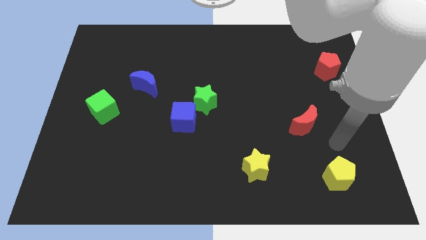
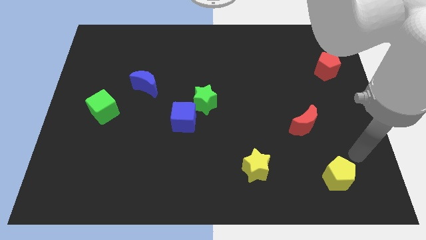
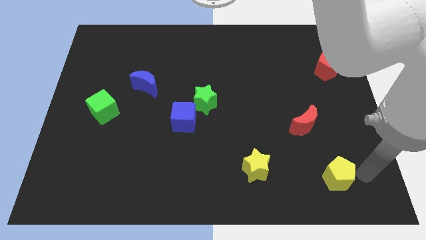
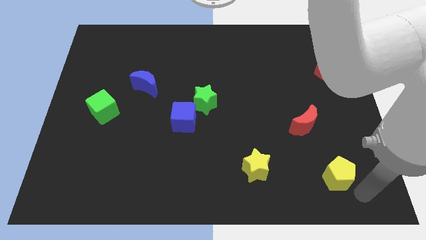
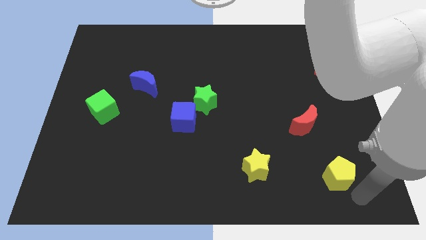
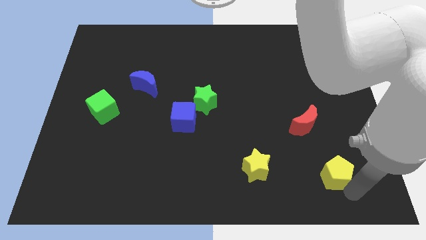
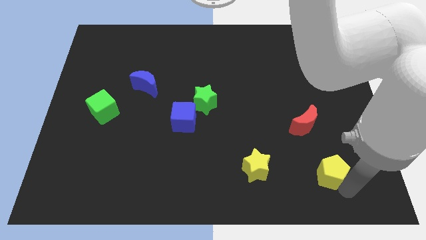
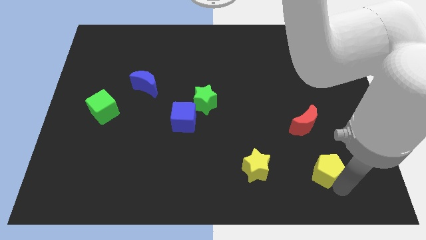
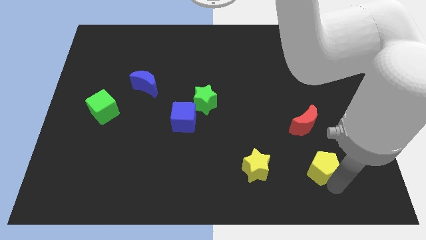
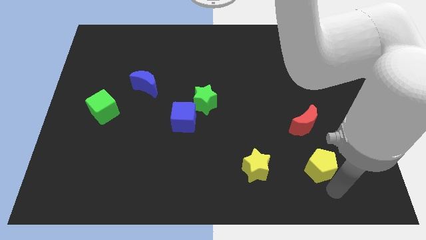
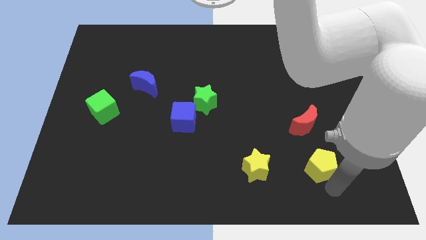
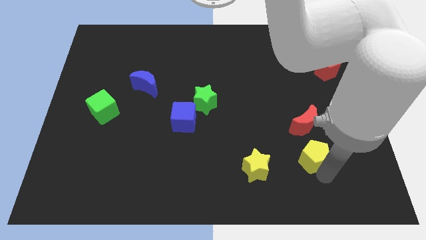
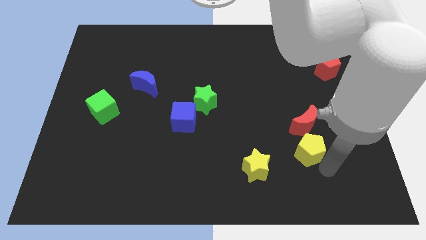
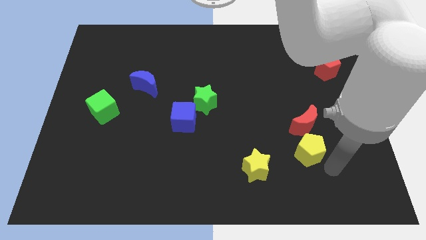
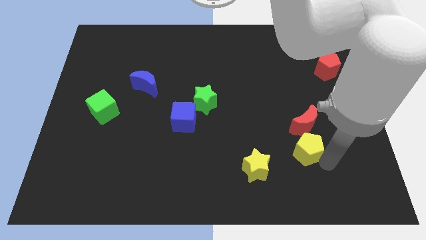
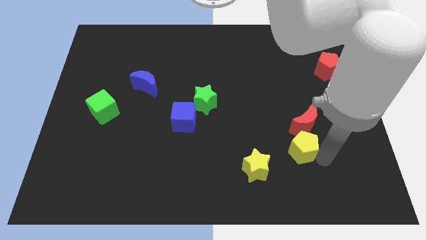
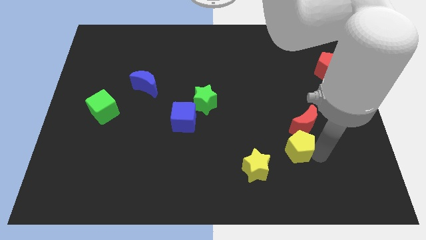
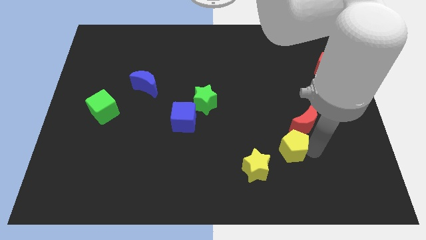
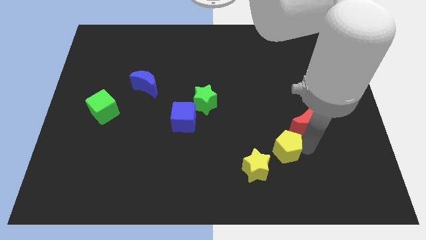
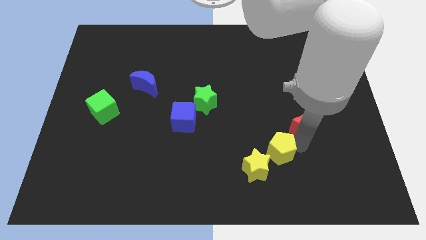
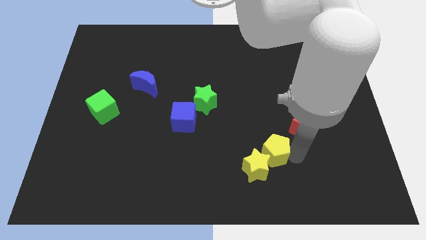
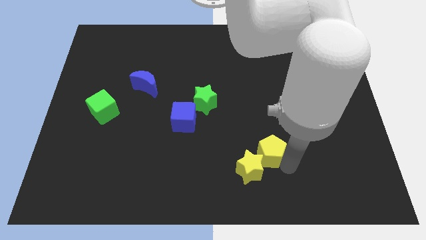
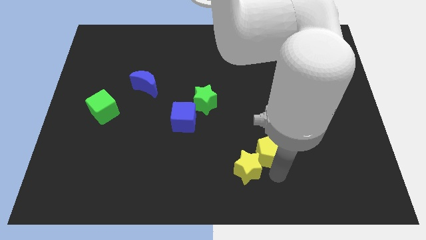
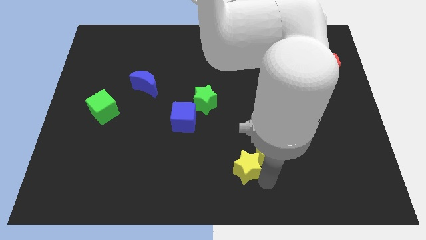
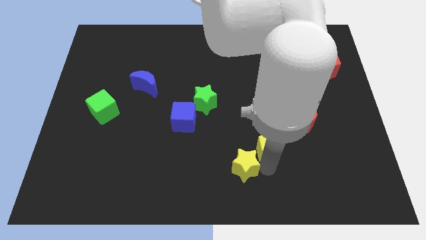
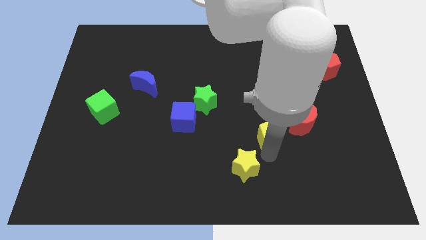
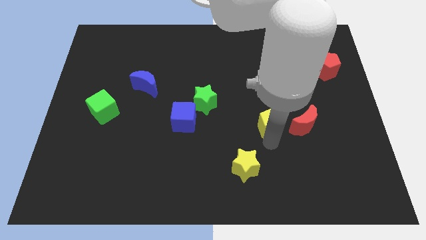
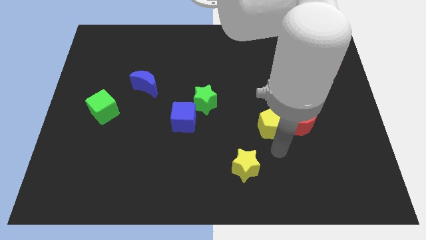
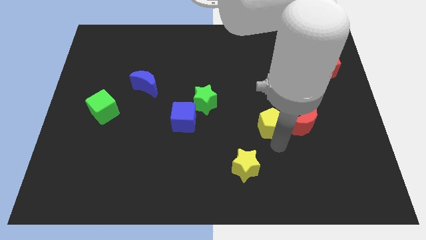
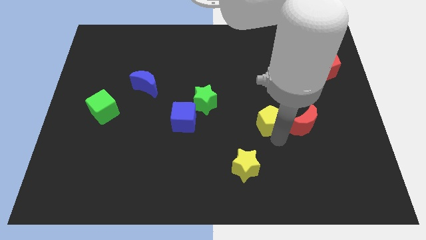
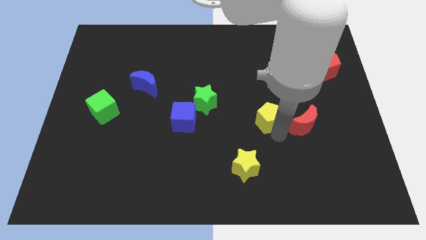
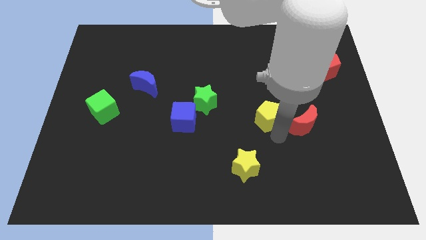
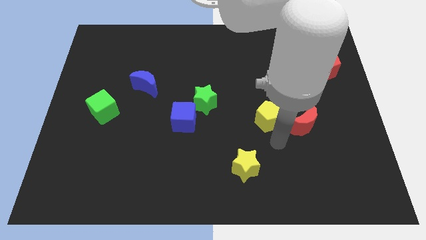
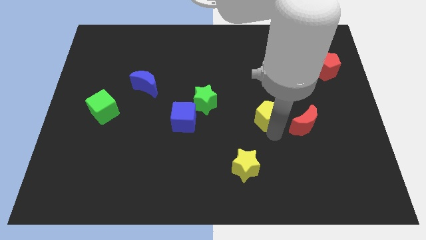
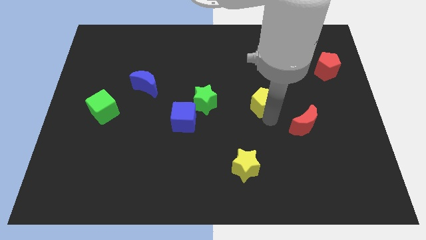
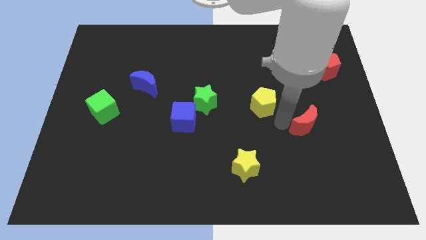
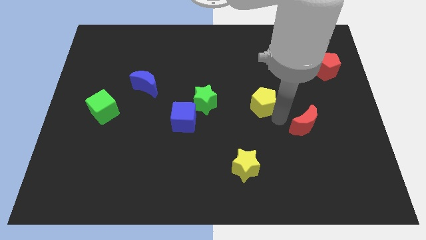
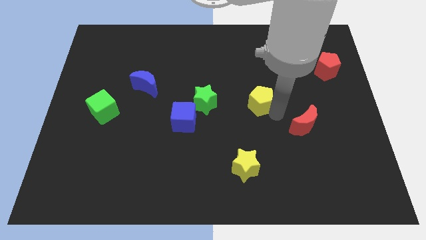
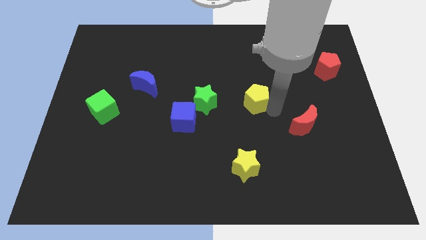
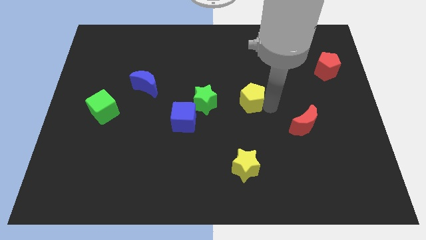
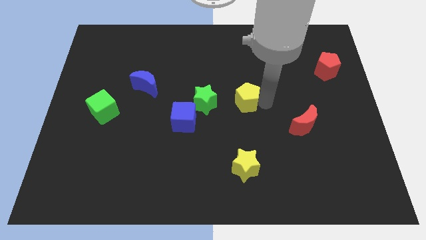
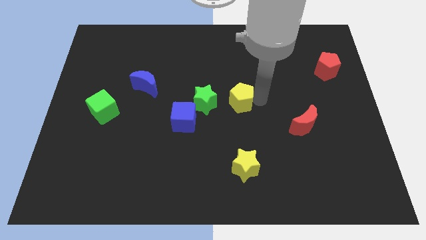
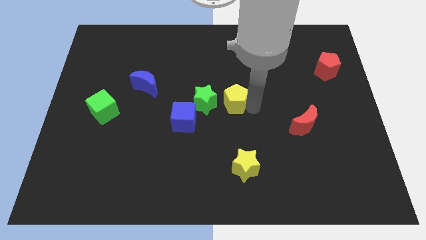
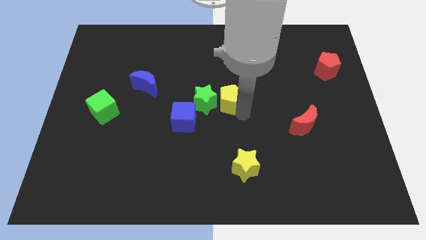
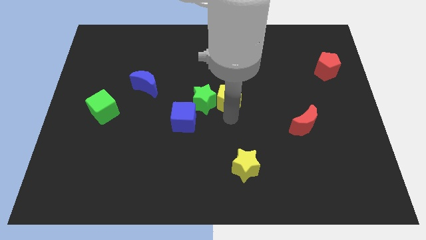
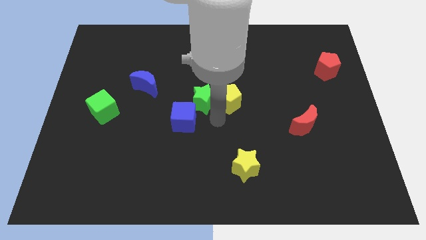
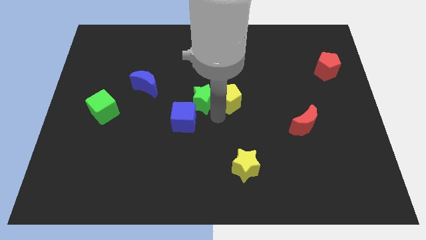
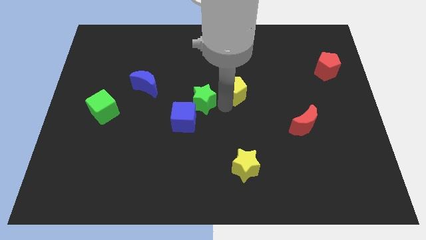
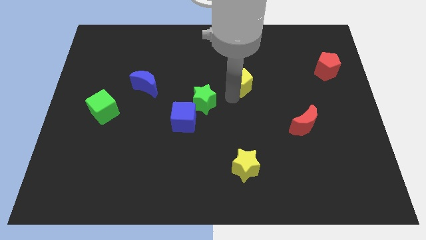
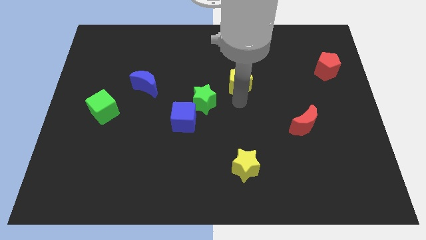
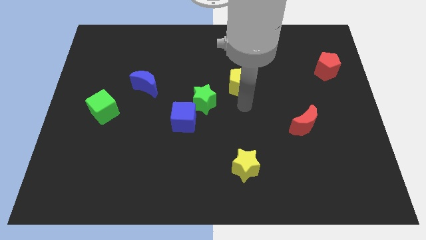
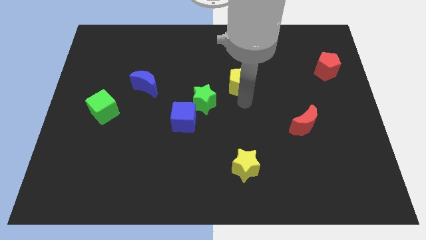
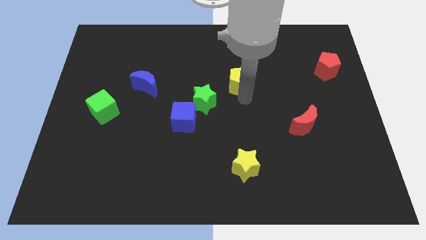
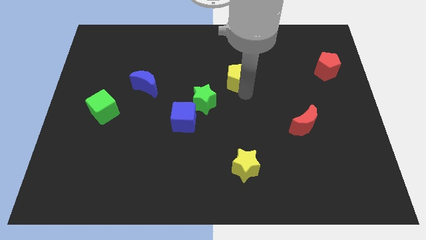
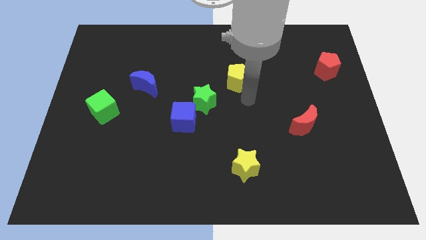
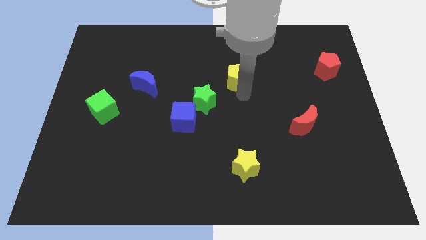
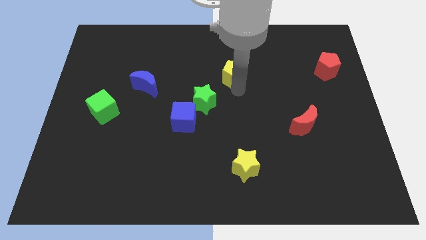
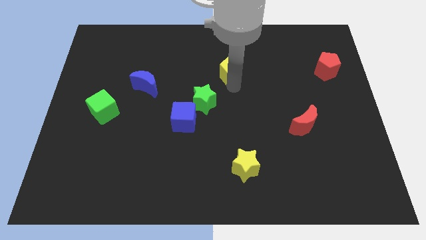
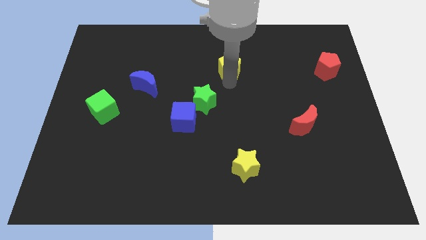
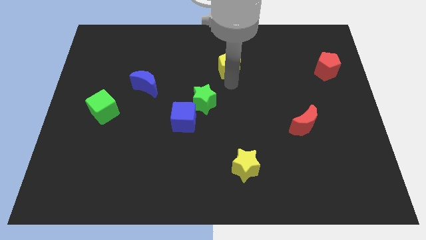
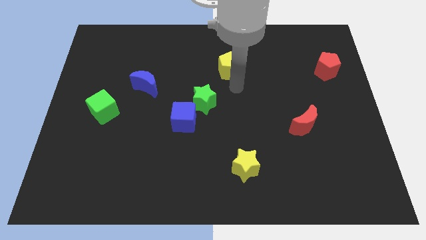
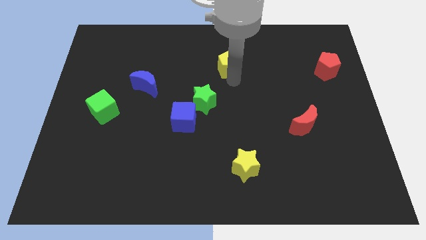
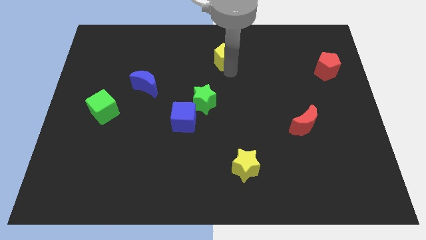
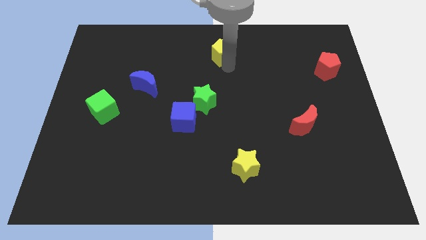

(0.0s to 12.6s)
put the yellow pentagon to the towards your base

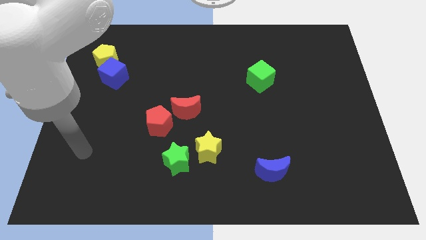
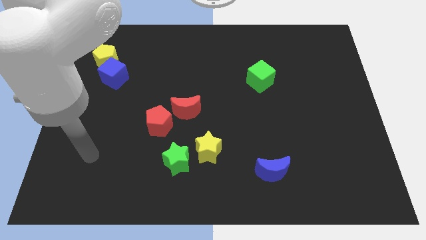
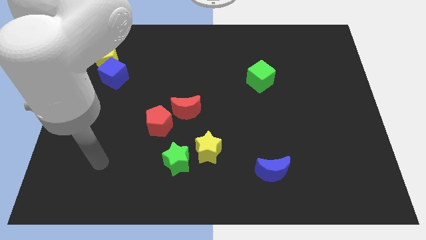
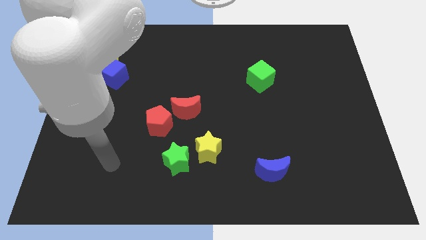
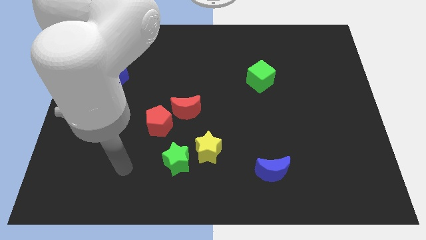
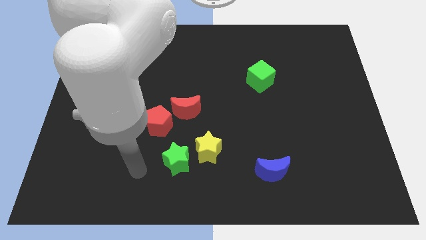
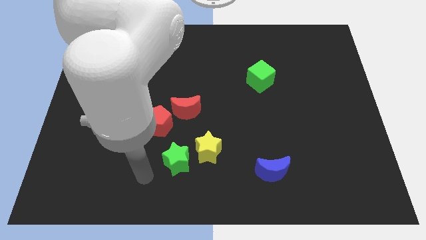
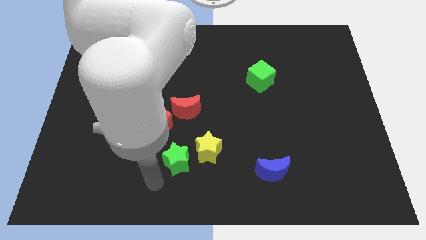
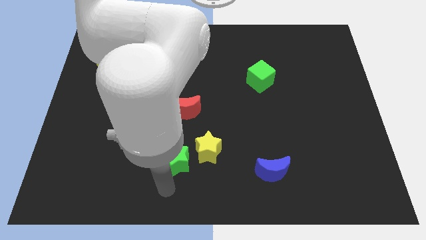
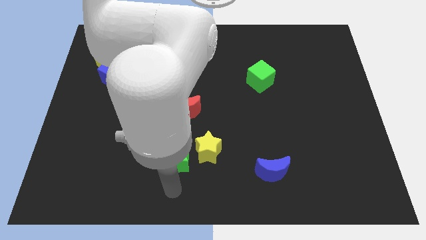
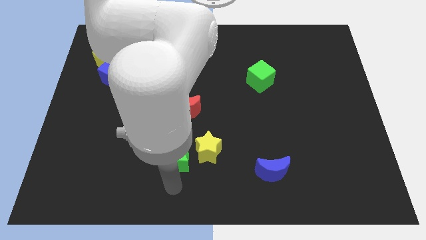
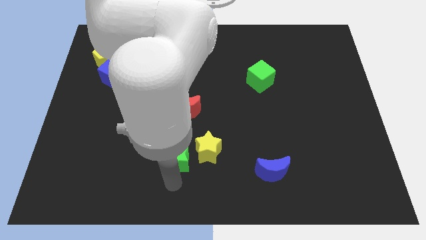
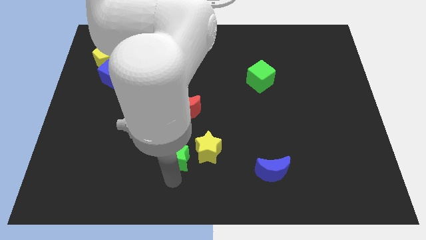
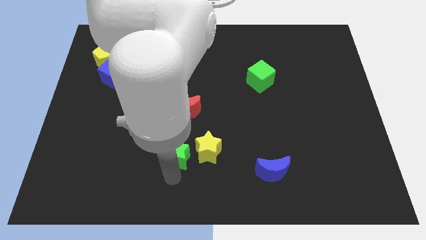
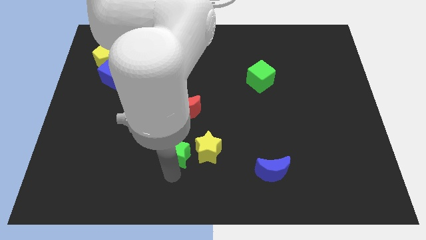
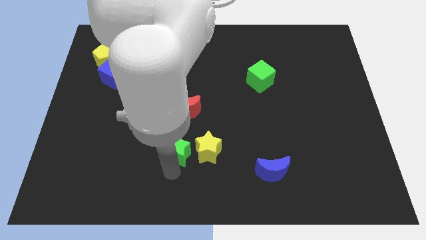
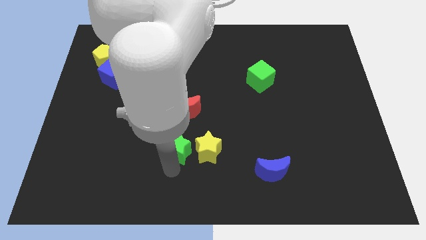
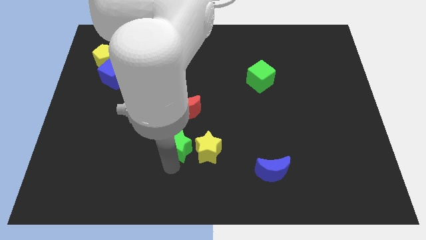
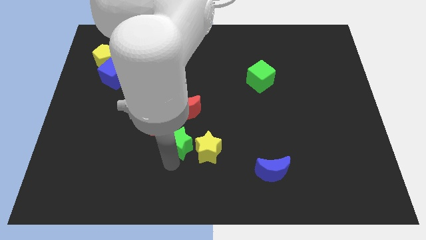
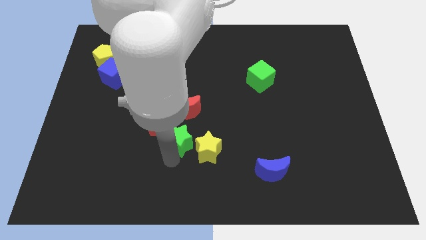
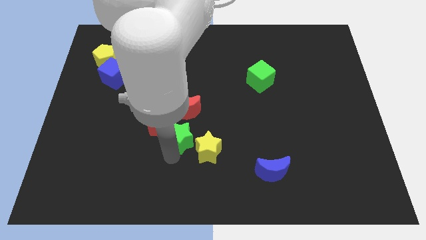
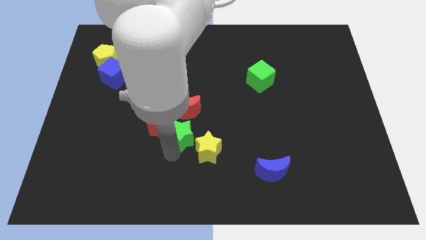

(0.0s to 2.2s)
move the green star to the middle of the board
